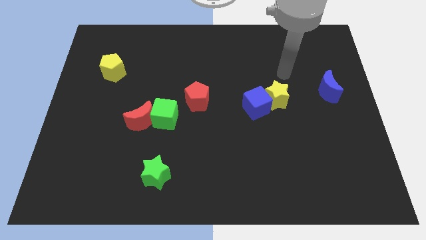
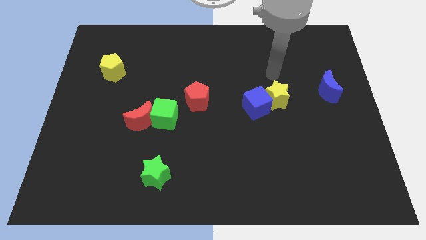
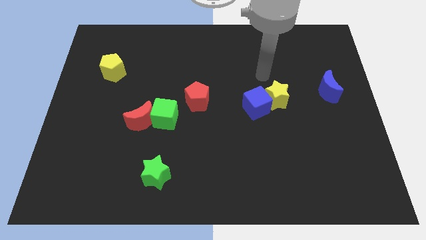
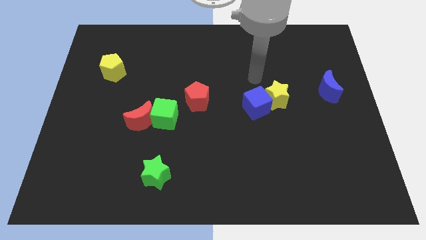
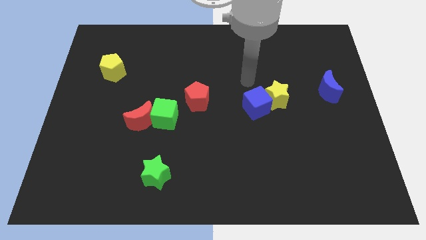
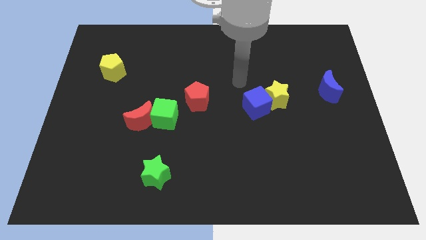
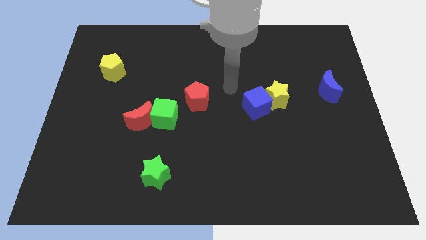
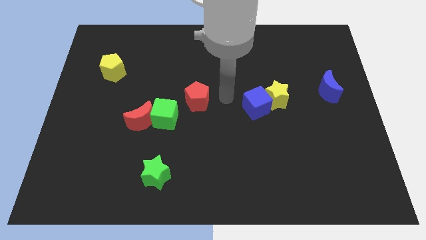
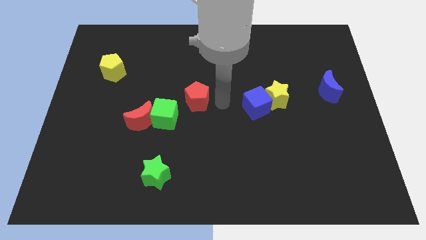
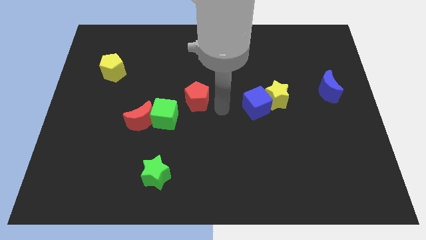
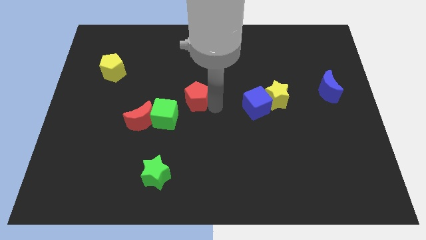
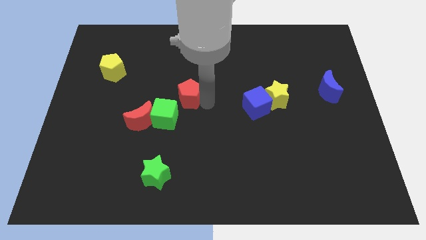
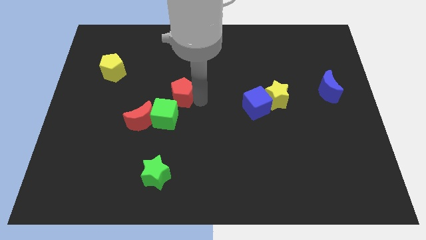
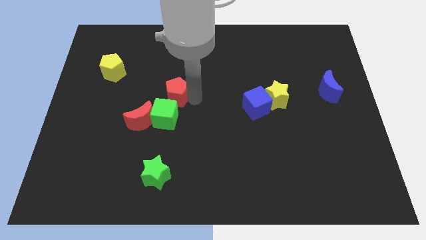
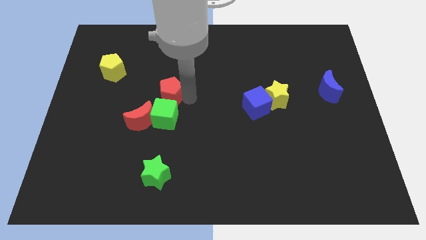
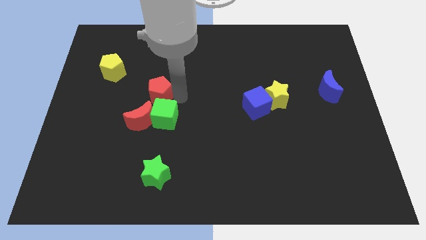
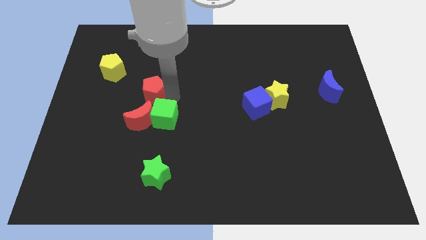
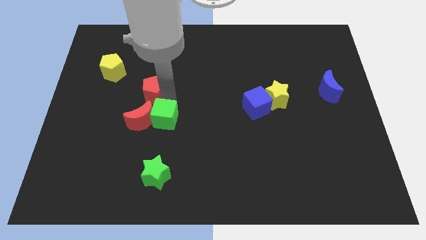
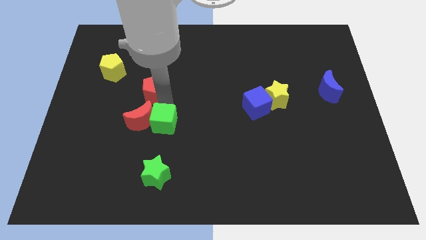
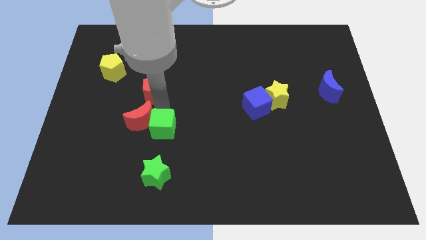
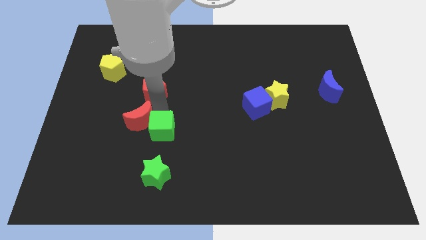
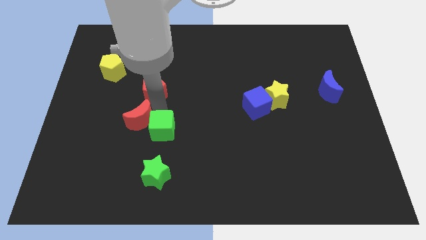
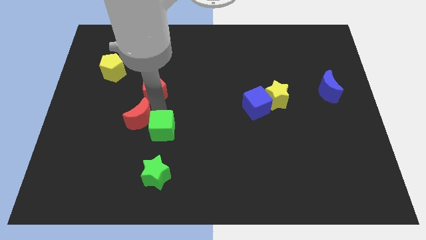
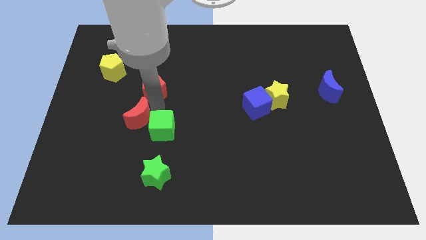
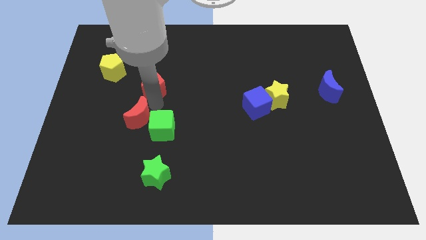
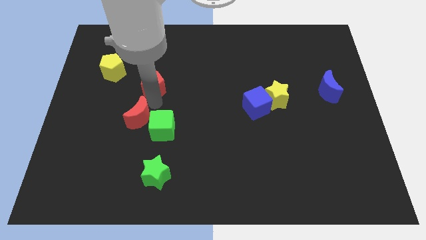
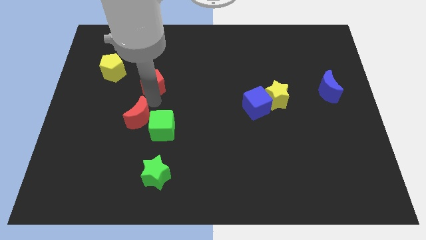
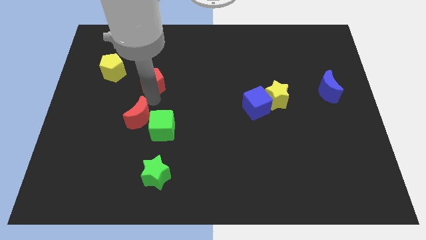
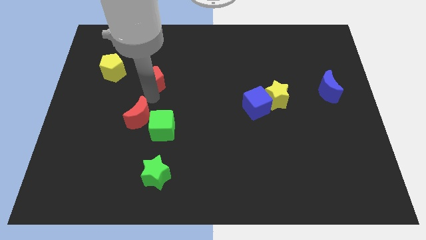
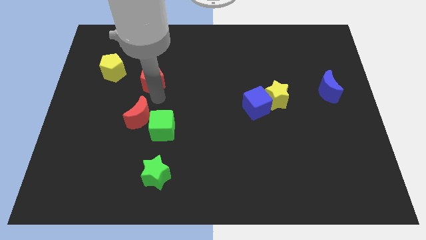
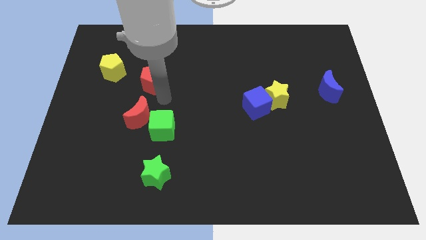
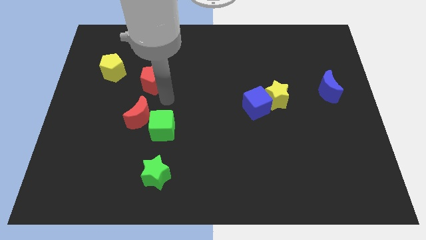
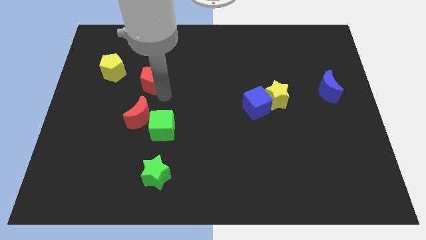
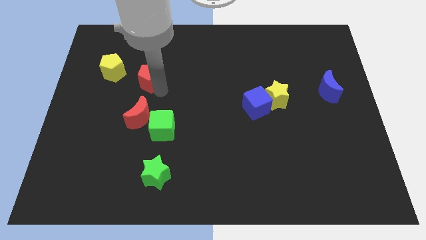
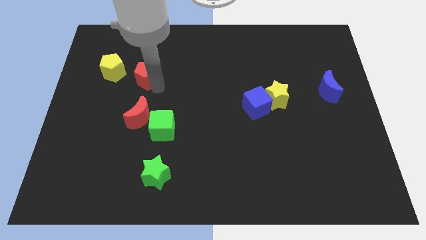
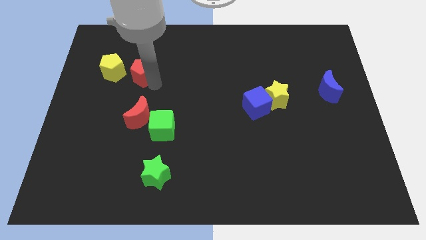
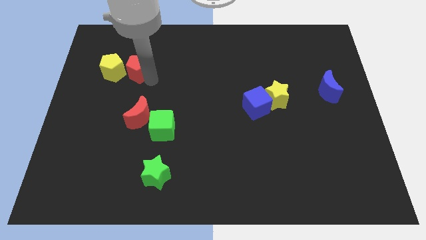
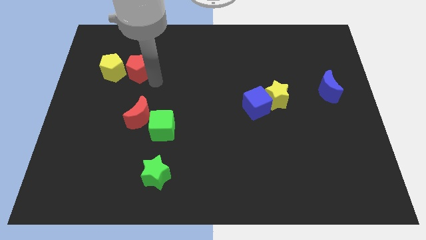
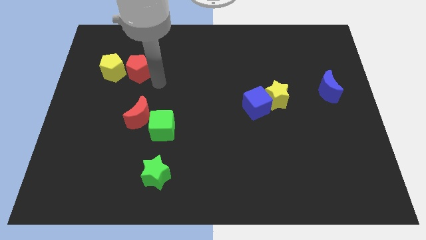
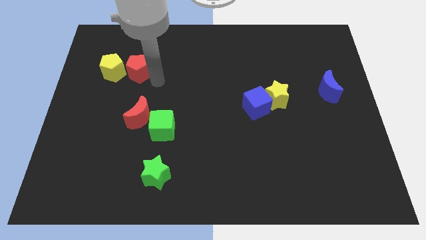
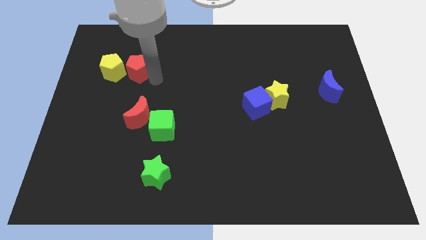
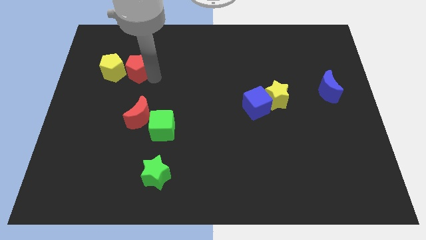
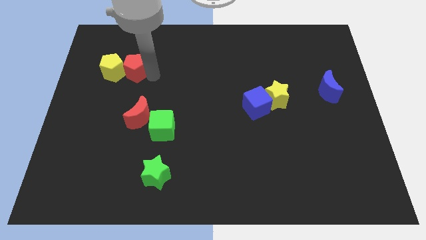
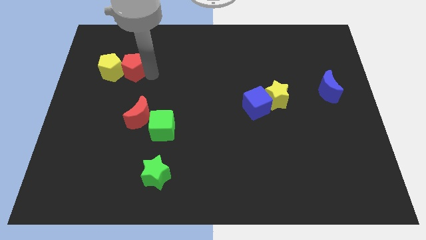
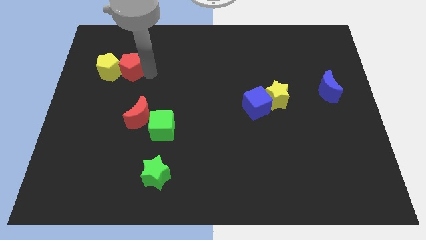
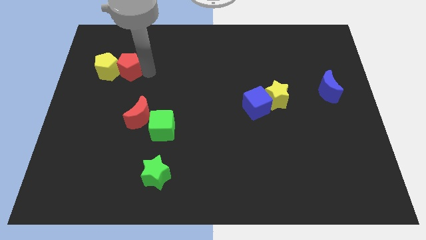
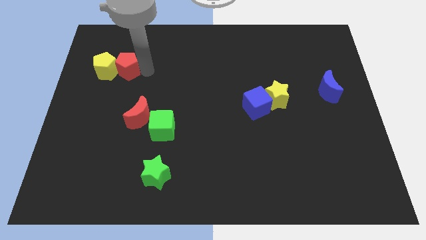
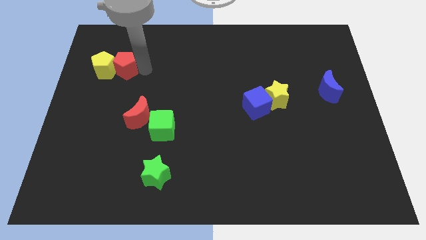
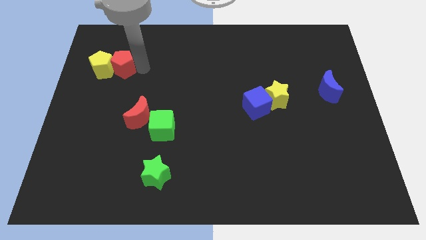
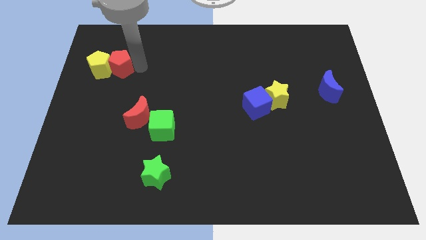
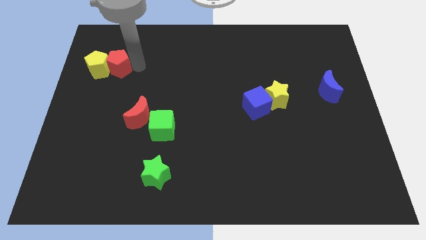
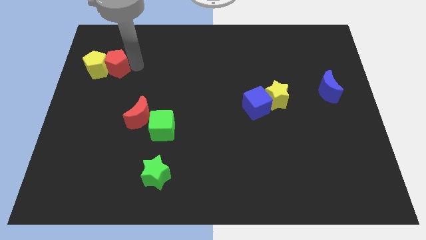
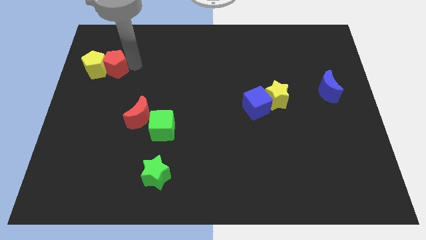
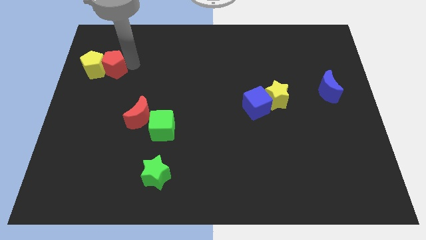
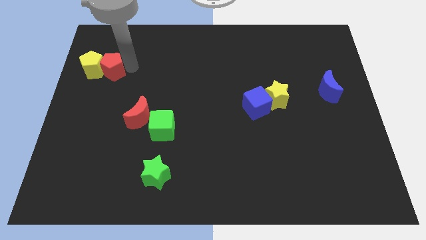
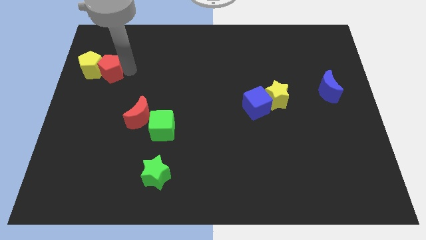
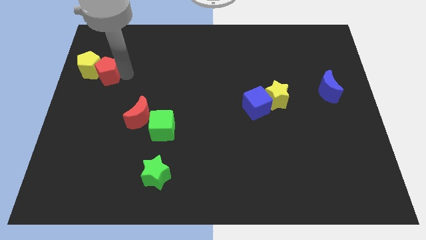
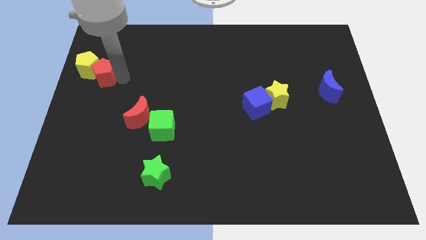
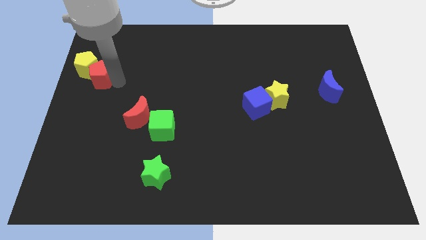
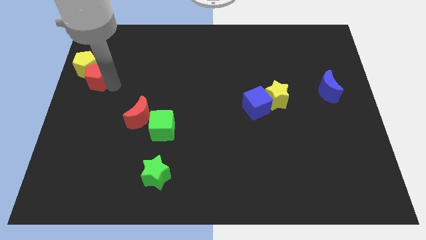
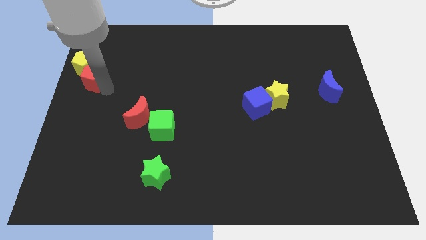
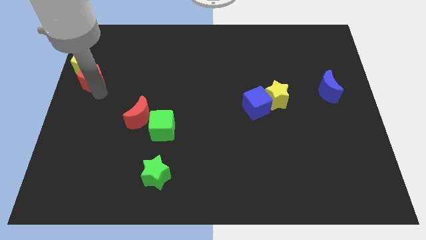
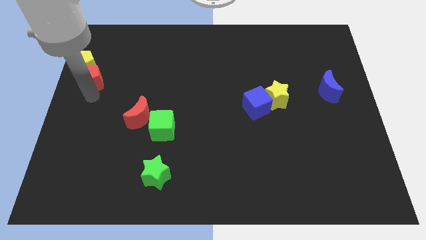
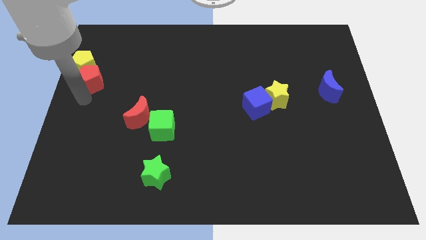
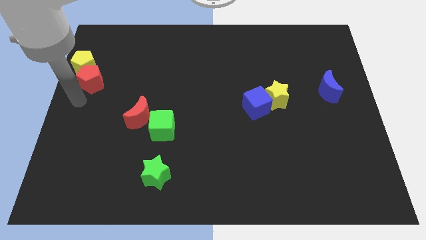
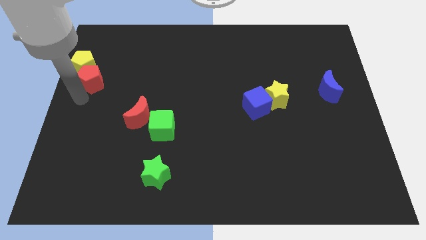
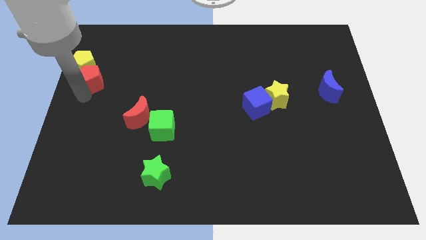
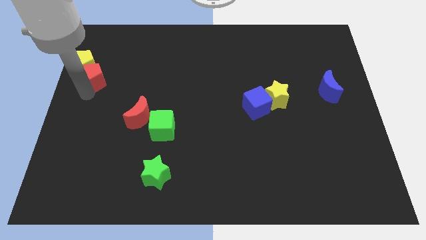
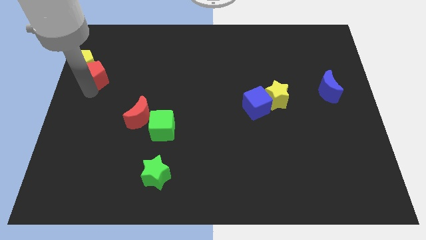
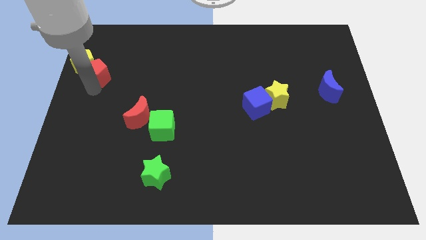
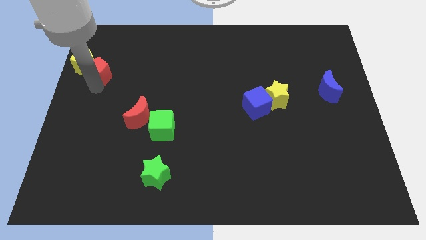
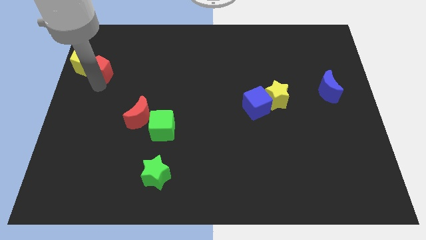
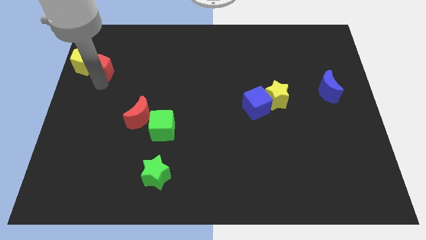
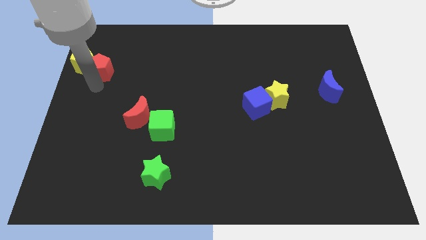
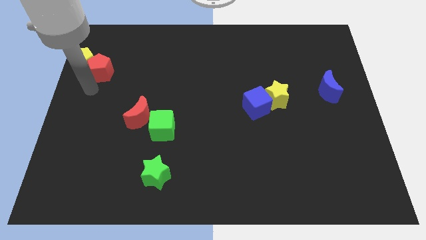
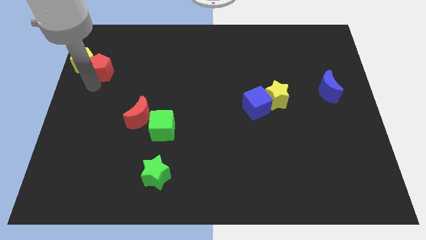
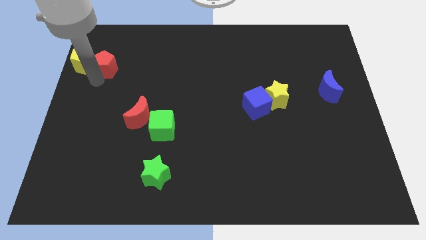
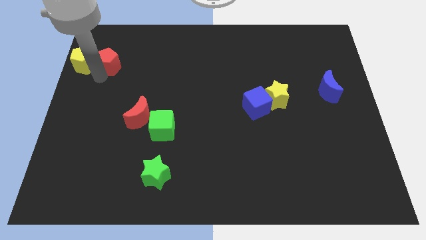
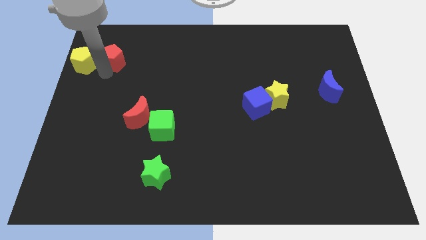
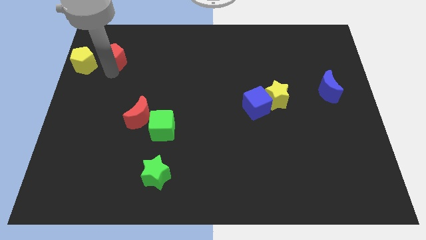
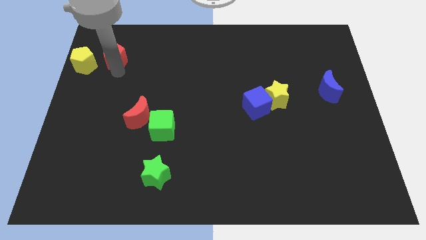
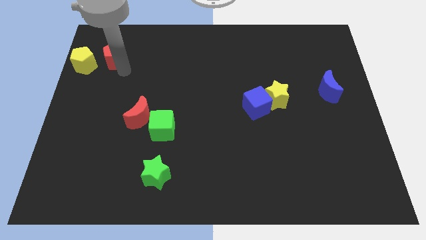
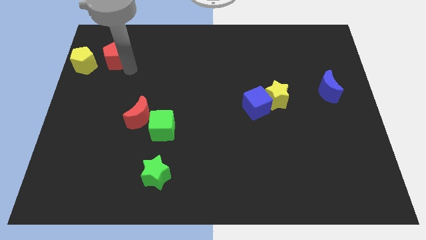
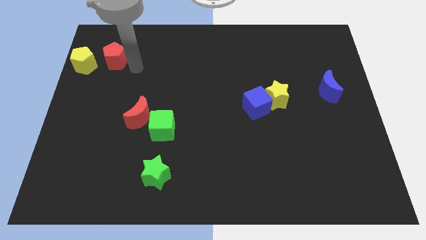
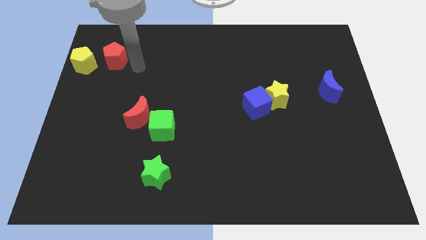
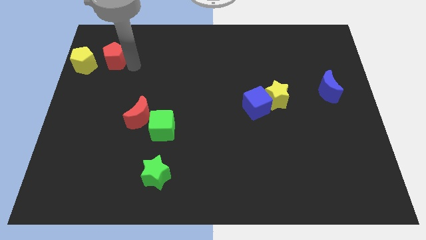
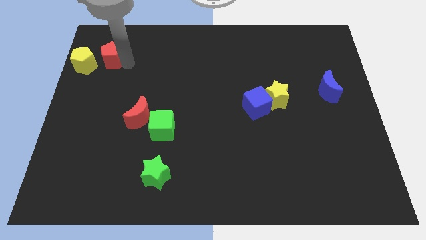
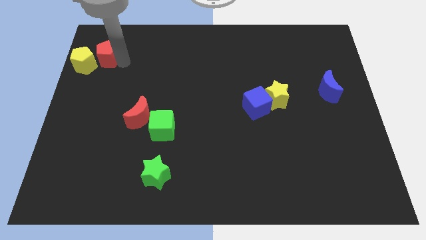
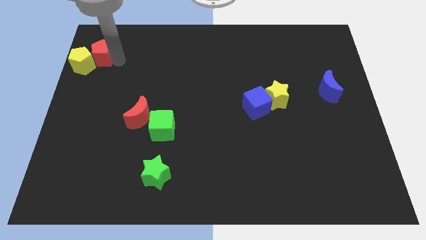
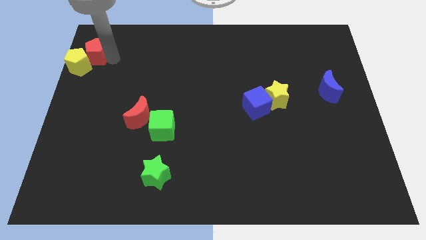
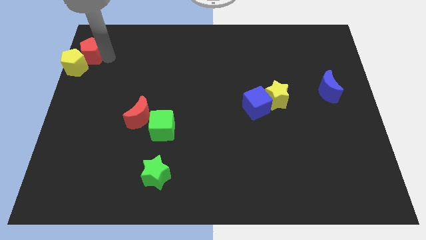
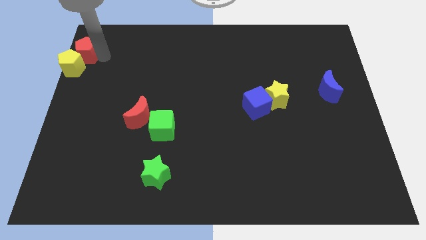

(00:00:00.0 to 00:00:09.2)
move the red pentagon to the top left corner
